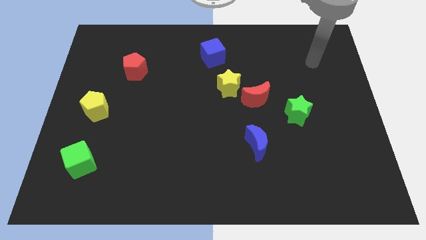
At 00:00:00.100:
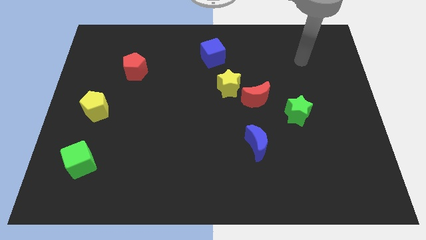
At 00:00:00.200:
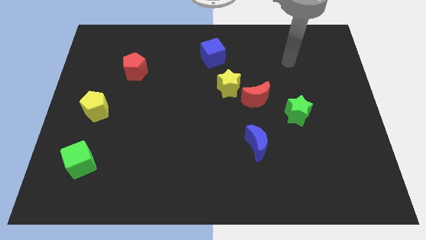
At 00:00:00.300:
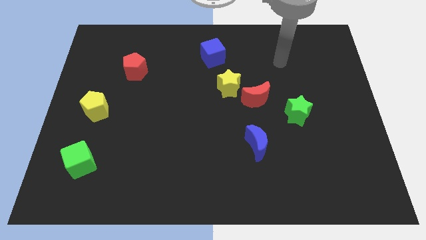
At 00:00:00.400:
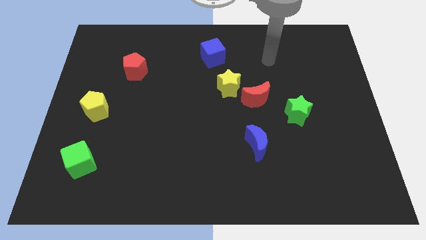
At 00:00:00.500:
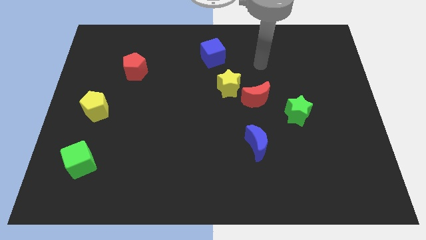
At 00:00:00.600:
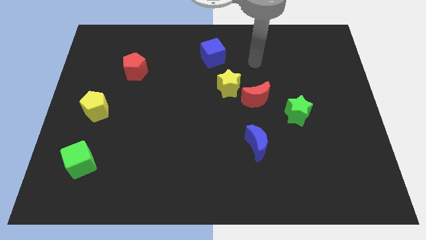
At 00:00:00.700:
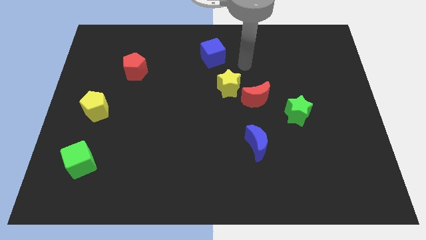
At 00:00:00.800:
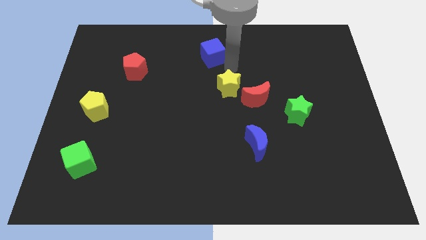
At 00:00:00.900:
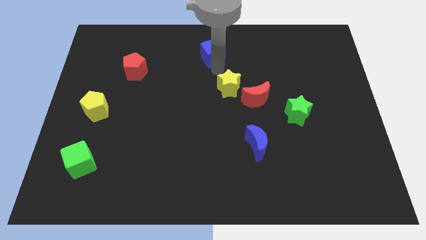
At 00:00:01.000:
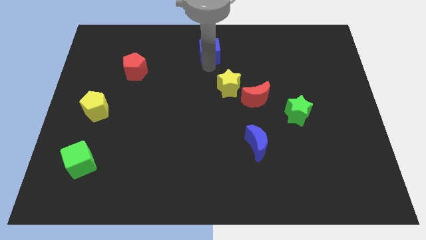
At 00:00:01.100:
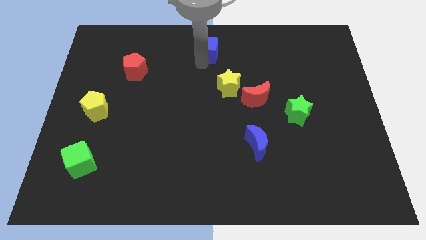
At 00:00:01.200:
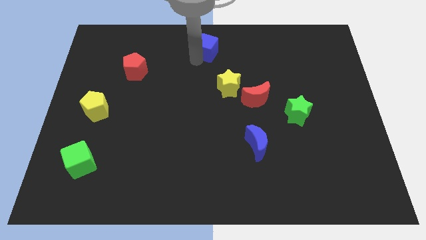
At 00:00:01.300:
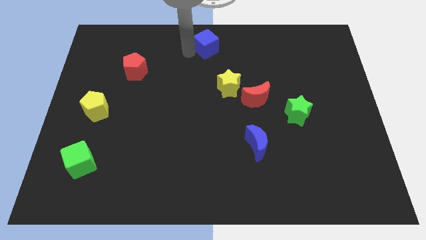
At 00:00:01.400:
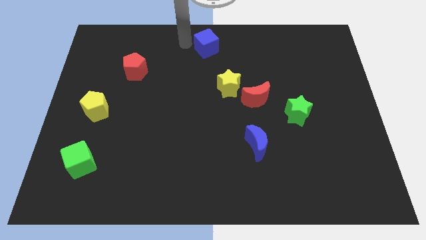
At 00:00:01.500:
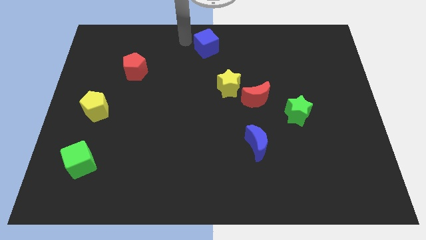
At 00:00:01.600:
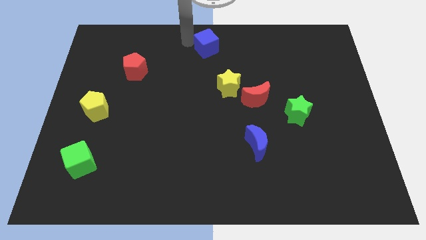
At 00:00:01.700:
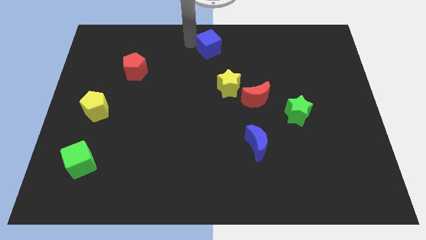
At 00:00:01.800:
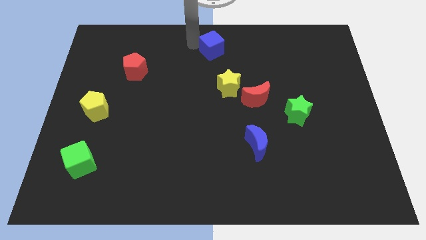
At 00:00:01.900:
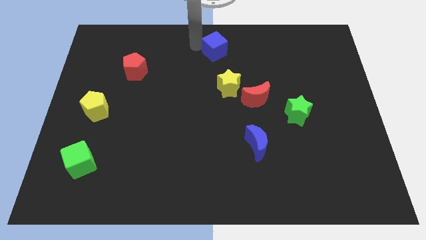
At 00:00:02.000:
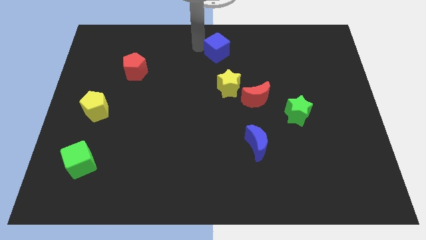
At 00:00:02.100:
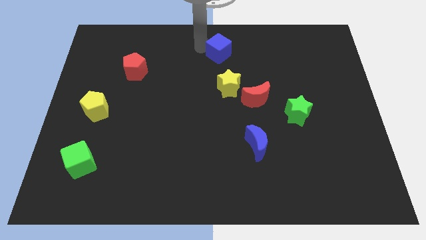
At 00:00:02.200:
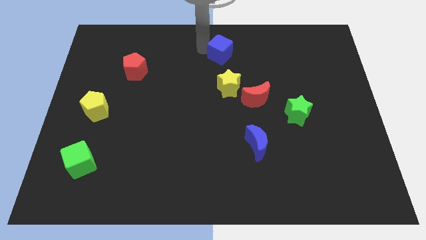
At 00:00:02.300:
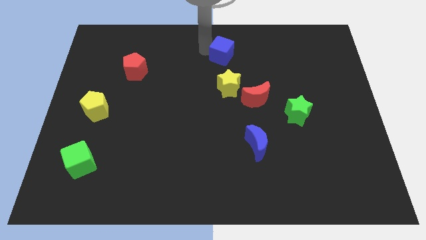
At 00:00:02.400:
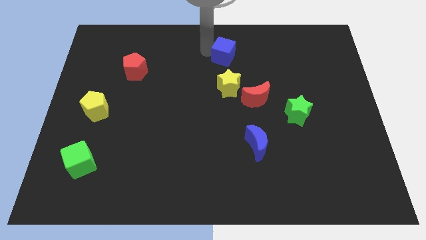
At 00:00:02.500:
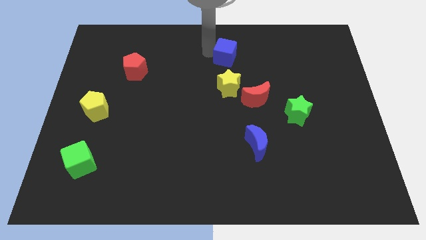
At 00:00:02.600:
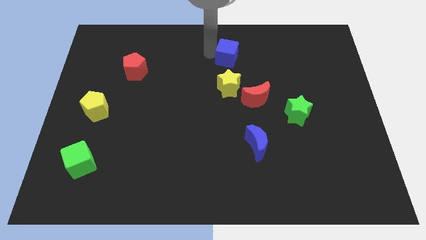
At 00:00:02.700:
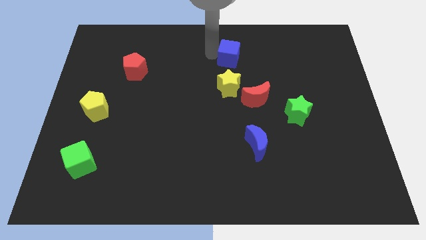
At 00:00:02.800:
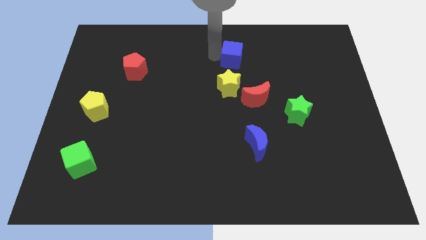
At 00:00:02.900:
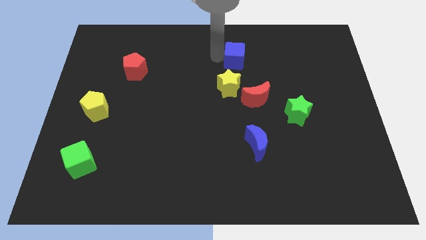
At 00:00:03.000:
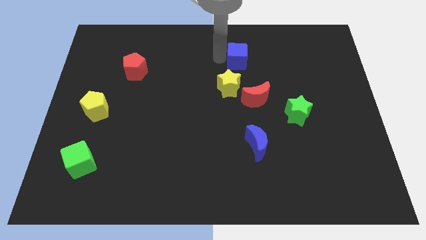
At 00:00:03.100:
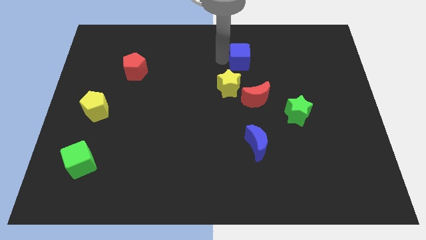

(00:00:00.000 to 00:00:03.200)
push the blue cube a little bit to the right

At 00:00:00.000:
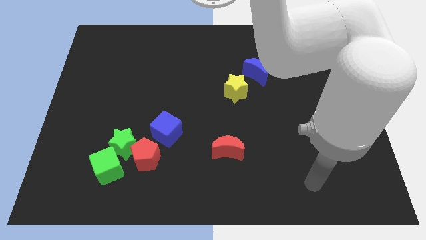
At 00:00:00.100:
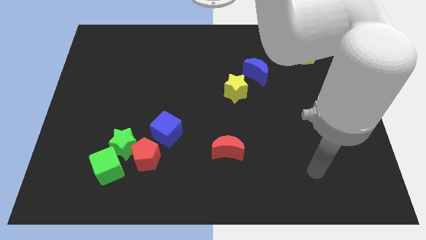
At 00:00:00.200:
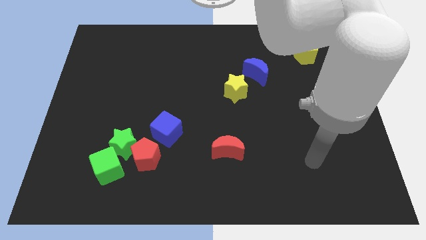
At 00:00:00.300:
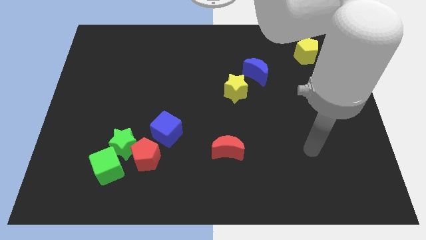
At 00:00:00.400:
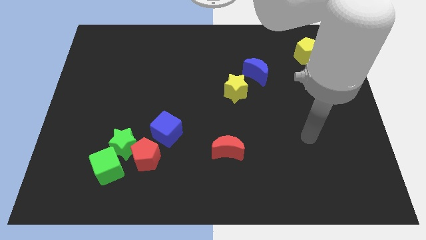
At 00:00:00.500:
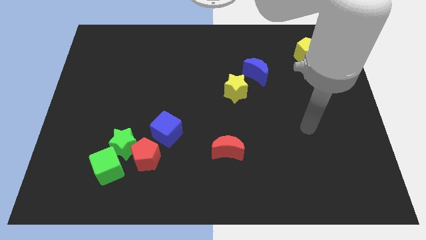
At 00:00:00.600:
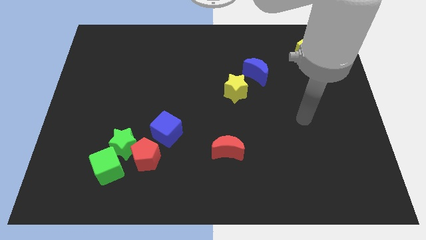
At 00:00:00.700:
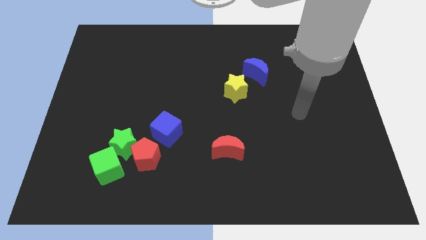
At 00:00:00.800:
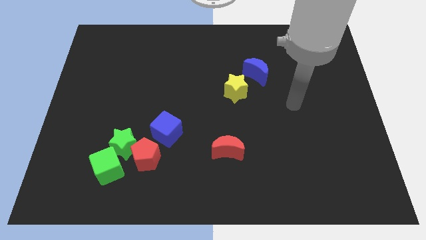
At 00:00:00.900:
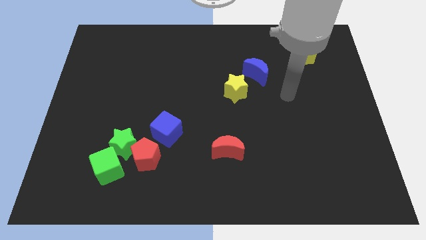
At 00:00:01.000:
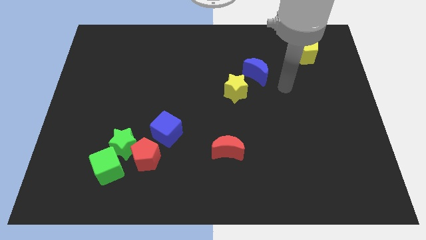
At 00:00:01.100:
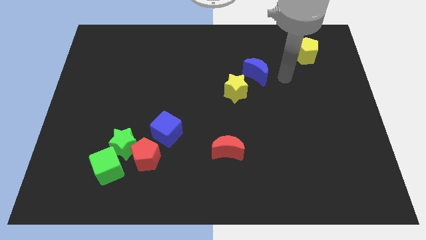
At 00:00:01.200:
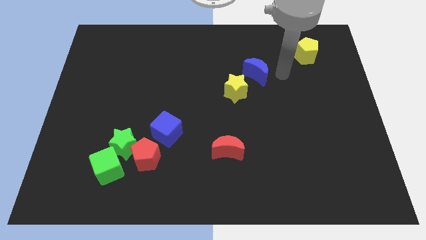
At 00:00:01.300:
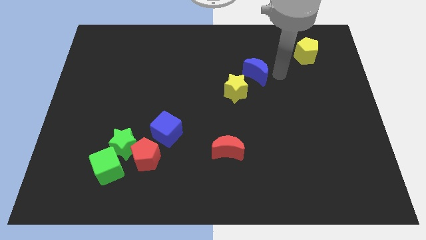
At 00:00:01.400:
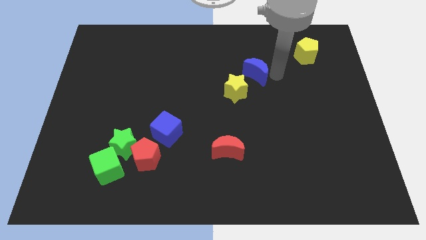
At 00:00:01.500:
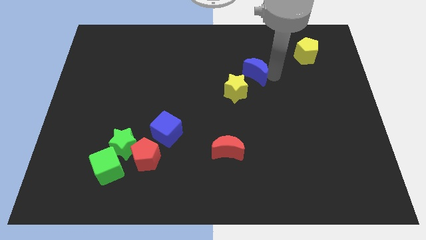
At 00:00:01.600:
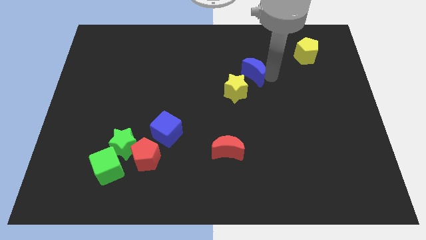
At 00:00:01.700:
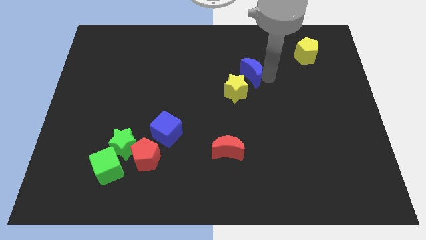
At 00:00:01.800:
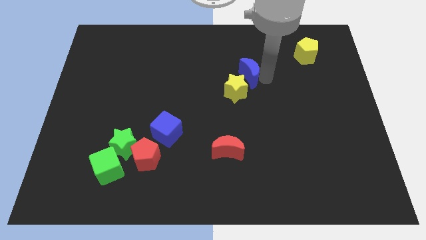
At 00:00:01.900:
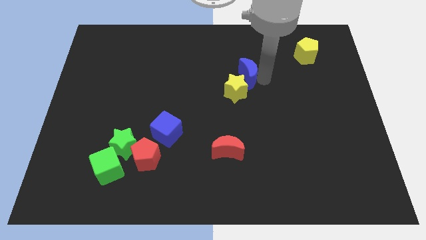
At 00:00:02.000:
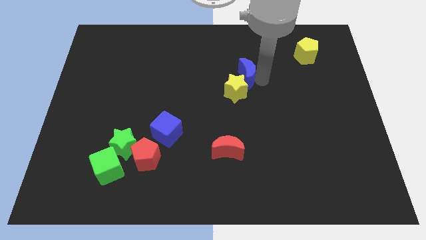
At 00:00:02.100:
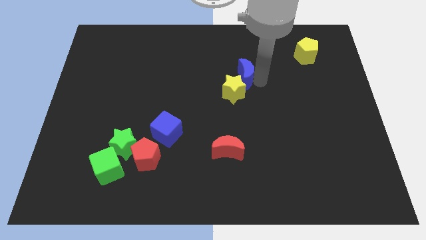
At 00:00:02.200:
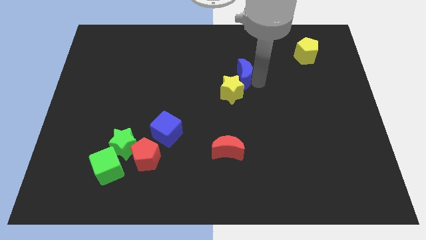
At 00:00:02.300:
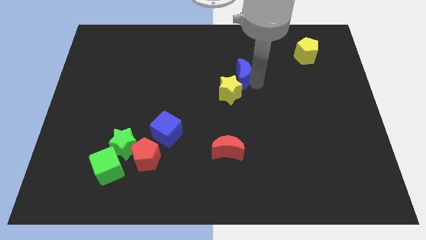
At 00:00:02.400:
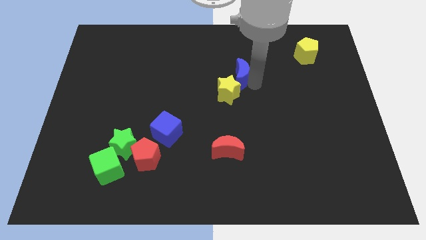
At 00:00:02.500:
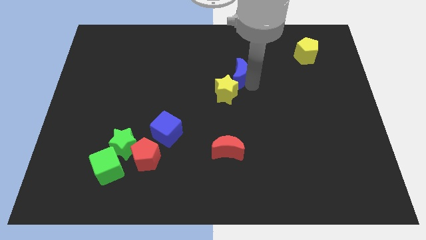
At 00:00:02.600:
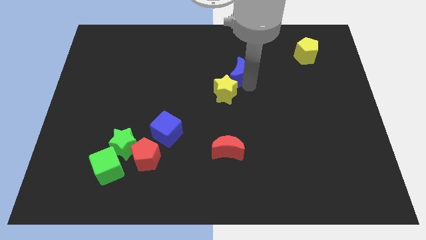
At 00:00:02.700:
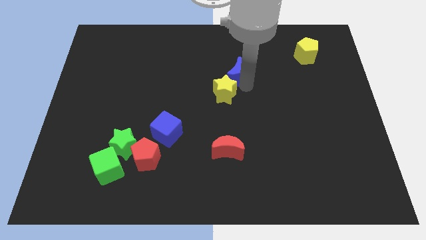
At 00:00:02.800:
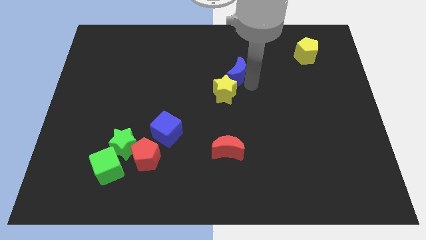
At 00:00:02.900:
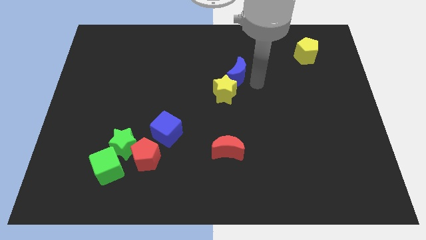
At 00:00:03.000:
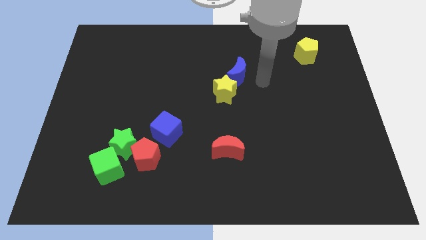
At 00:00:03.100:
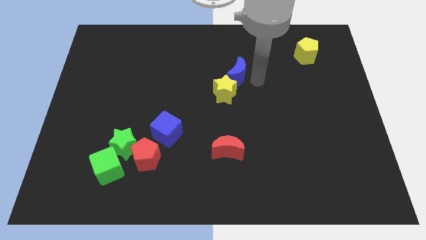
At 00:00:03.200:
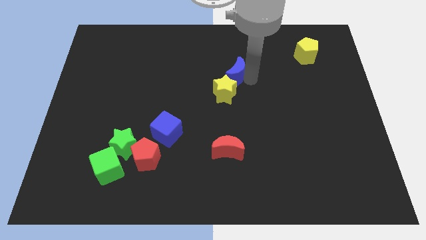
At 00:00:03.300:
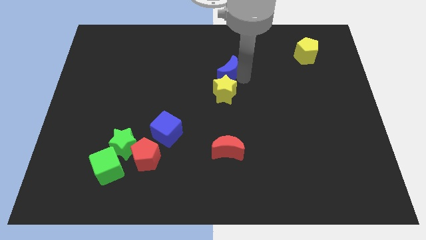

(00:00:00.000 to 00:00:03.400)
slightly push the blue moon left

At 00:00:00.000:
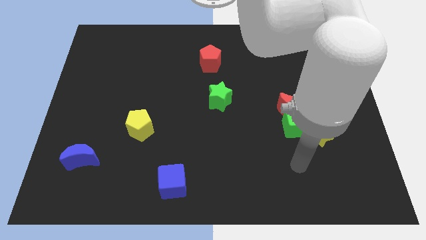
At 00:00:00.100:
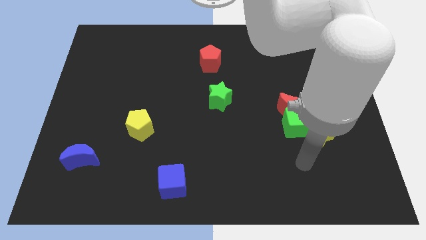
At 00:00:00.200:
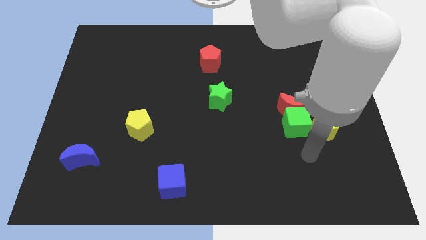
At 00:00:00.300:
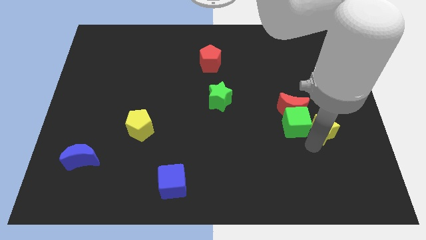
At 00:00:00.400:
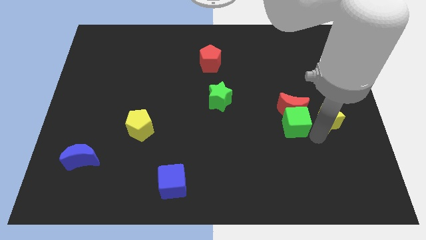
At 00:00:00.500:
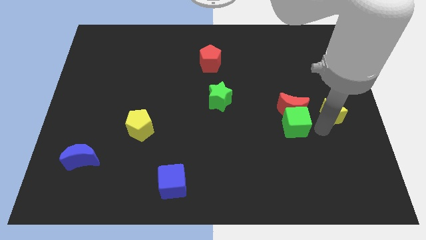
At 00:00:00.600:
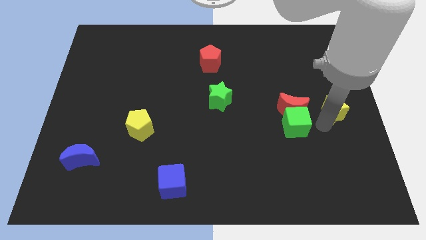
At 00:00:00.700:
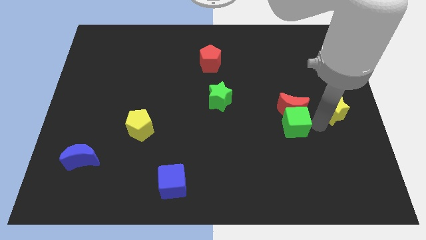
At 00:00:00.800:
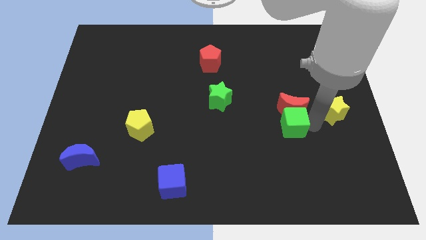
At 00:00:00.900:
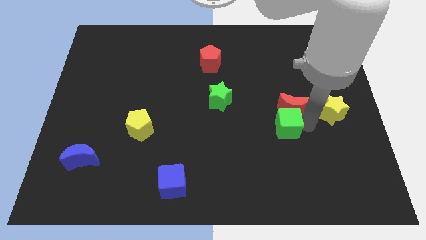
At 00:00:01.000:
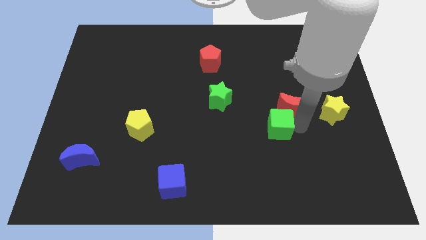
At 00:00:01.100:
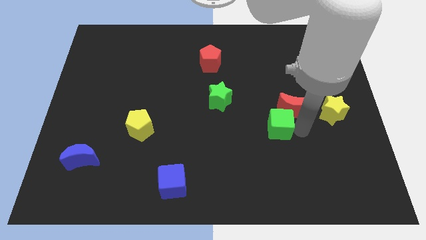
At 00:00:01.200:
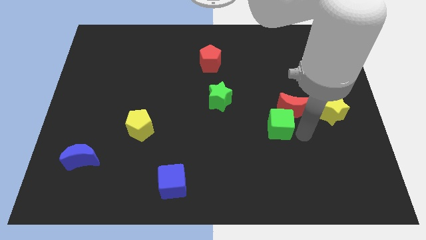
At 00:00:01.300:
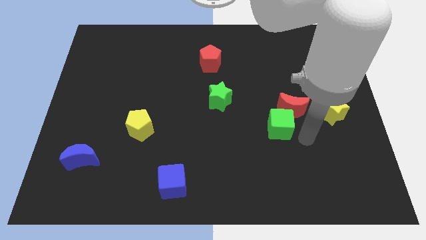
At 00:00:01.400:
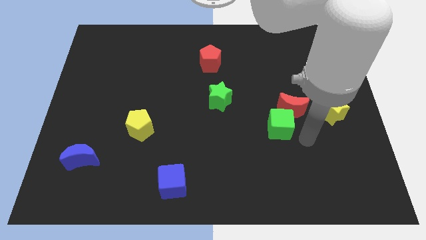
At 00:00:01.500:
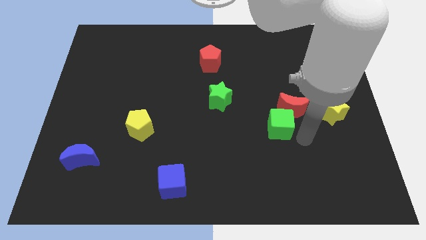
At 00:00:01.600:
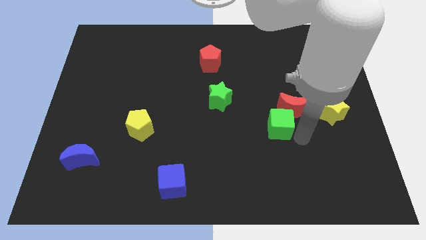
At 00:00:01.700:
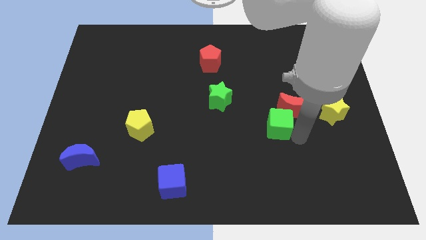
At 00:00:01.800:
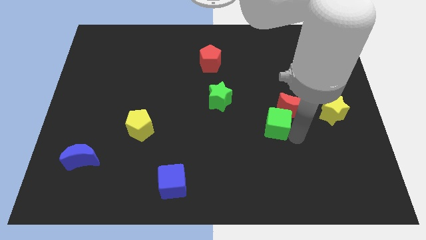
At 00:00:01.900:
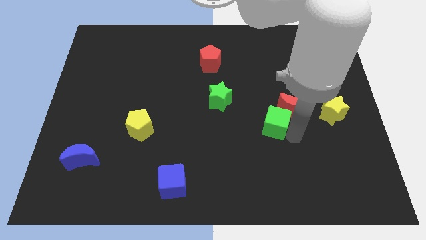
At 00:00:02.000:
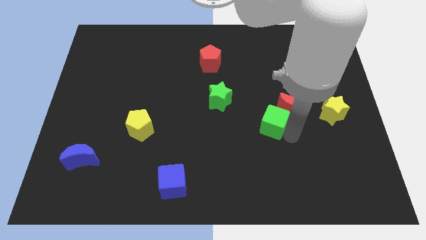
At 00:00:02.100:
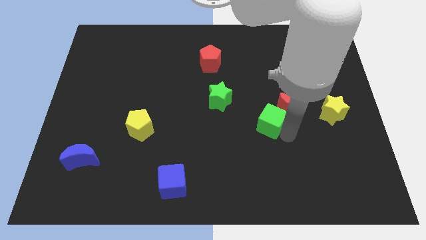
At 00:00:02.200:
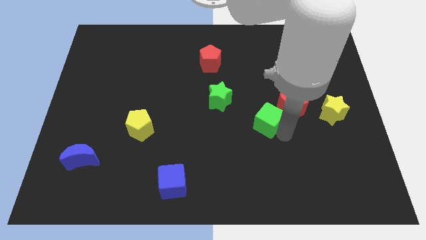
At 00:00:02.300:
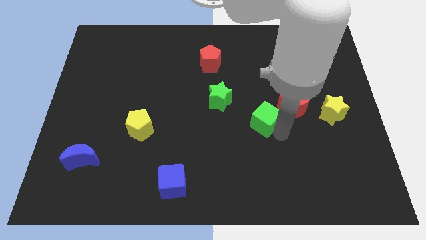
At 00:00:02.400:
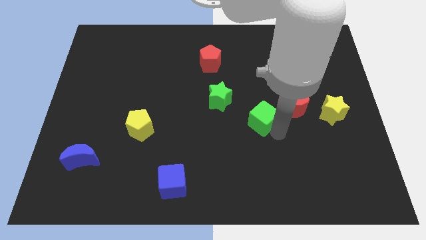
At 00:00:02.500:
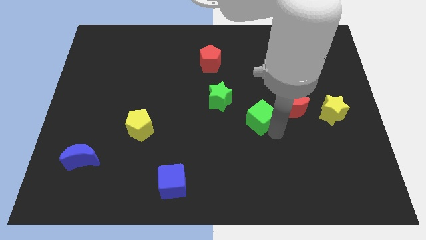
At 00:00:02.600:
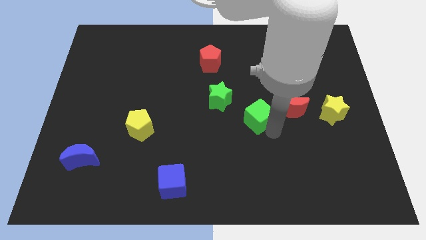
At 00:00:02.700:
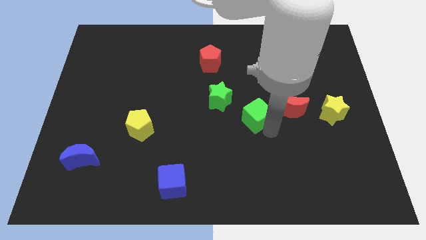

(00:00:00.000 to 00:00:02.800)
slide the green cube a bit upwards and to the left
